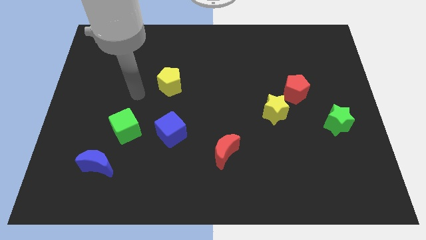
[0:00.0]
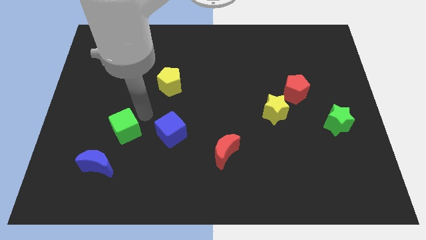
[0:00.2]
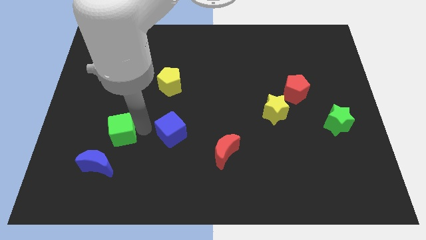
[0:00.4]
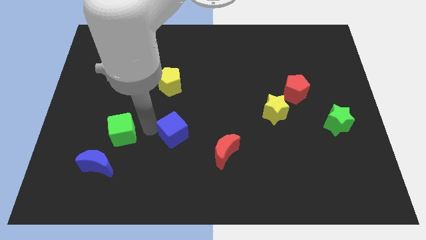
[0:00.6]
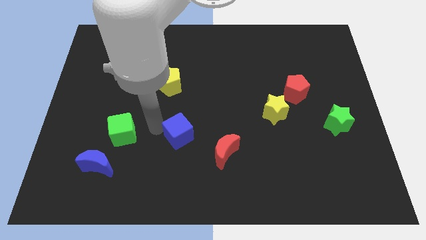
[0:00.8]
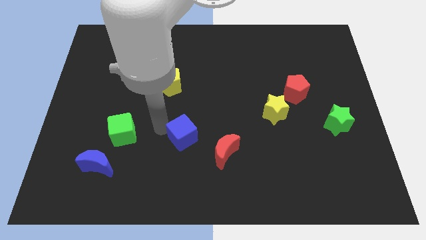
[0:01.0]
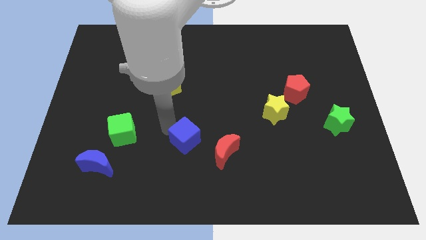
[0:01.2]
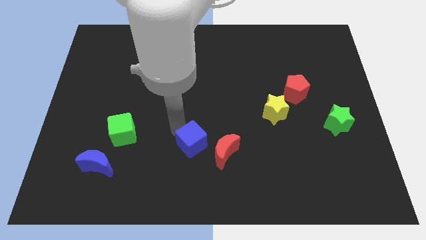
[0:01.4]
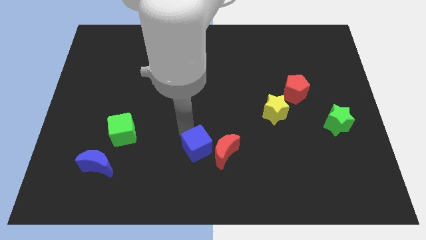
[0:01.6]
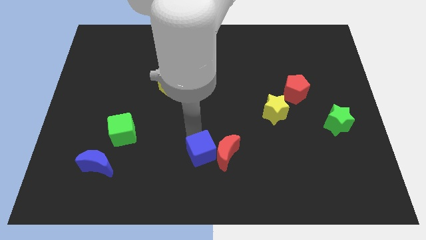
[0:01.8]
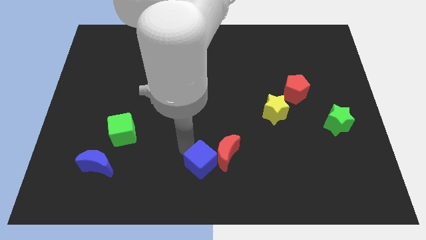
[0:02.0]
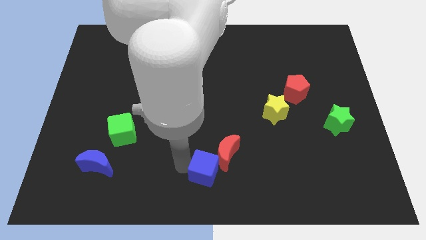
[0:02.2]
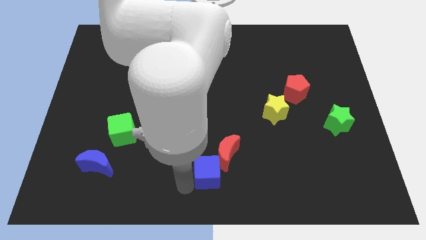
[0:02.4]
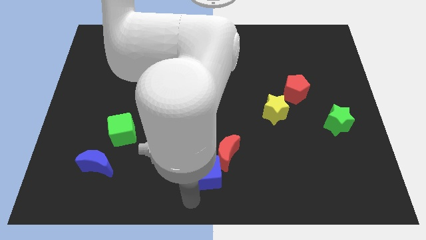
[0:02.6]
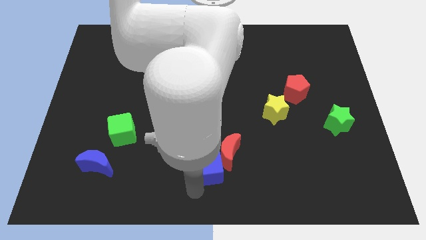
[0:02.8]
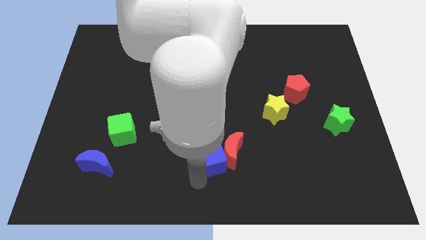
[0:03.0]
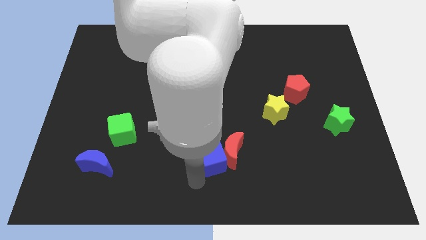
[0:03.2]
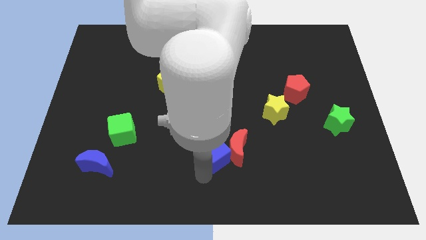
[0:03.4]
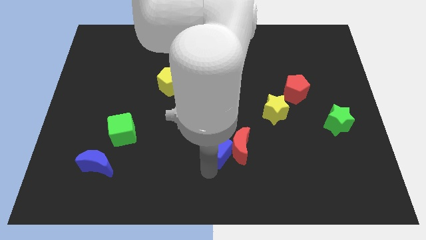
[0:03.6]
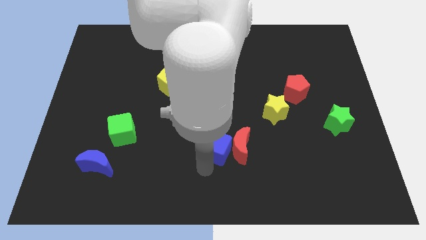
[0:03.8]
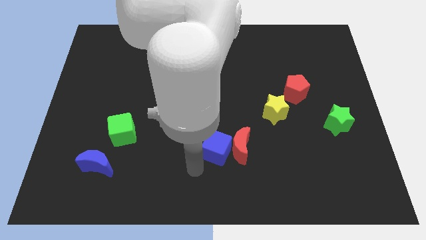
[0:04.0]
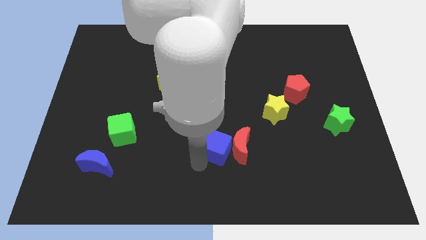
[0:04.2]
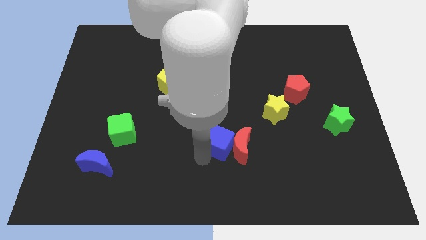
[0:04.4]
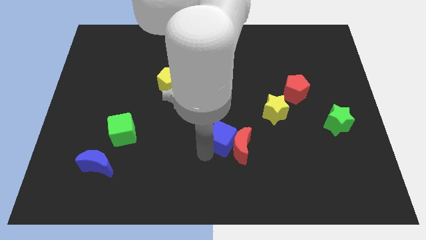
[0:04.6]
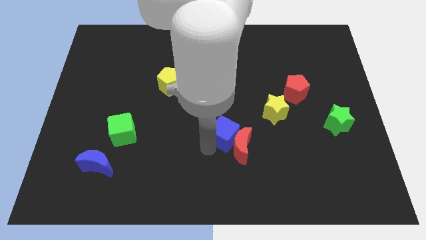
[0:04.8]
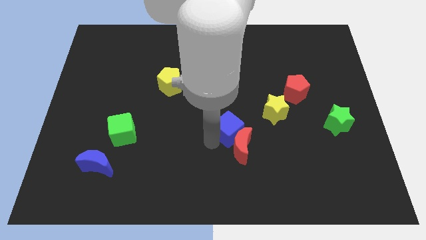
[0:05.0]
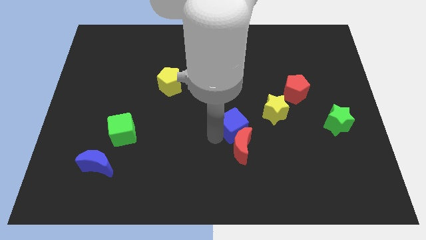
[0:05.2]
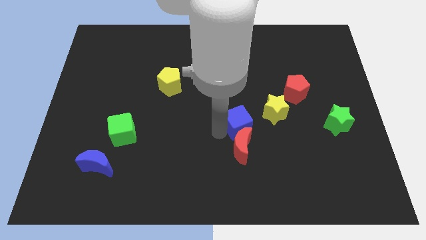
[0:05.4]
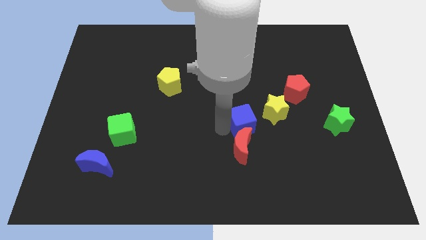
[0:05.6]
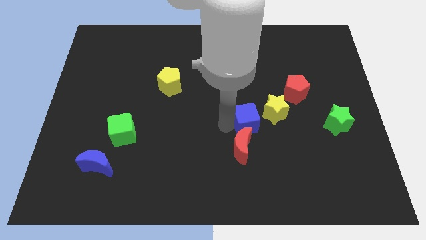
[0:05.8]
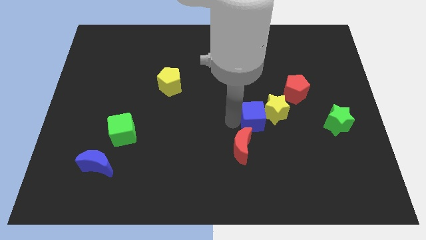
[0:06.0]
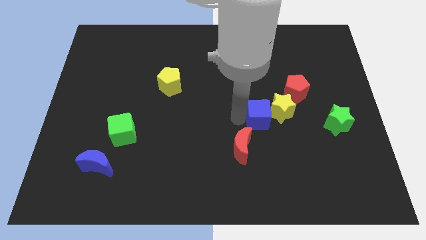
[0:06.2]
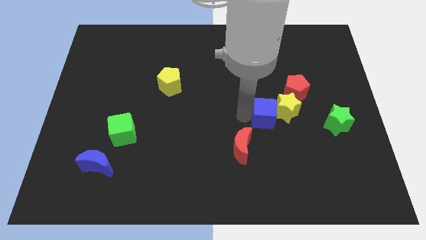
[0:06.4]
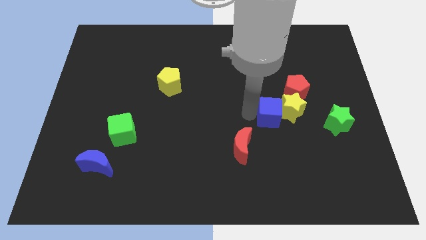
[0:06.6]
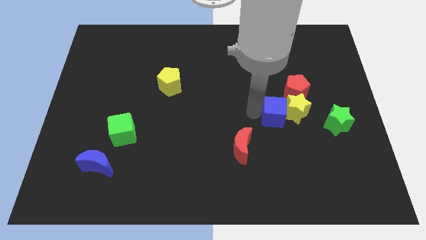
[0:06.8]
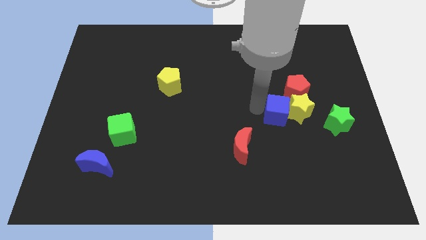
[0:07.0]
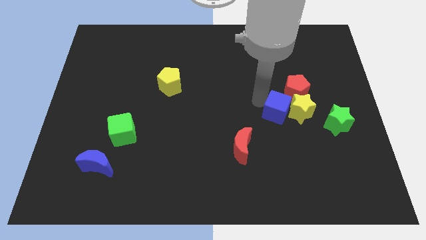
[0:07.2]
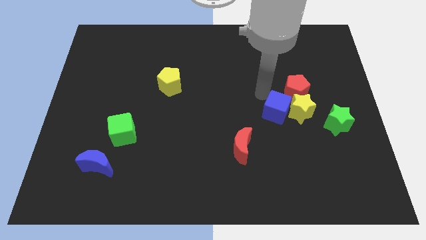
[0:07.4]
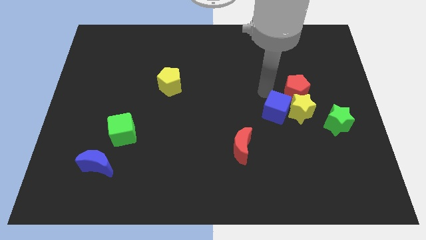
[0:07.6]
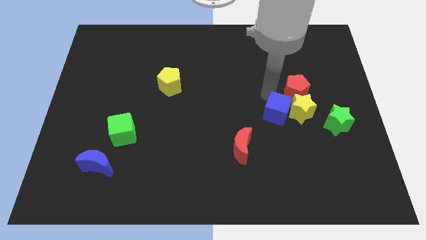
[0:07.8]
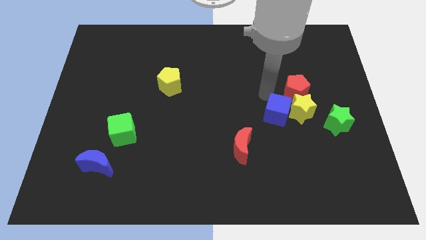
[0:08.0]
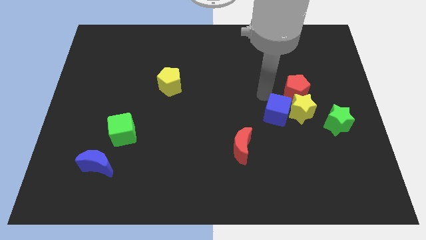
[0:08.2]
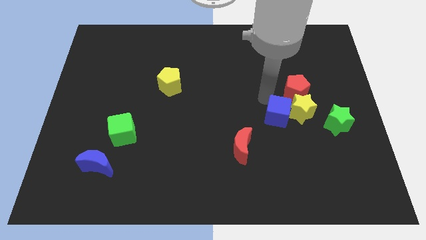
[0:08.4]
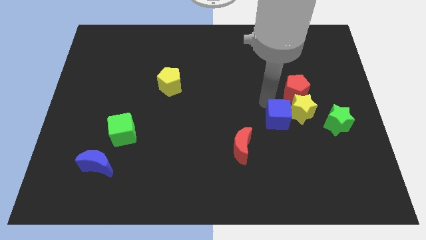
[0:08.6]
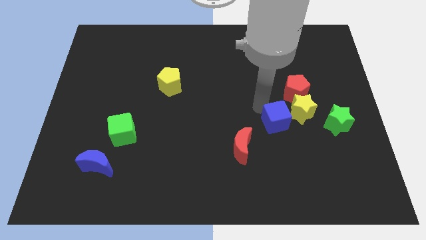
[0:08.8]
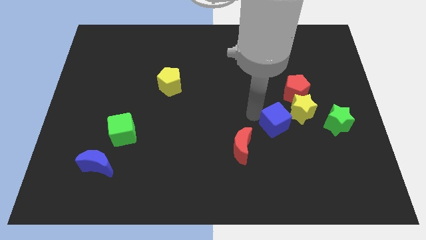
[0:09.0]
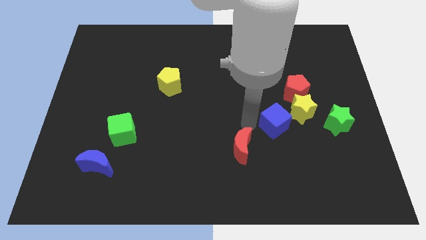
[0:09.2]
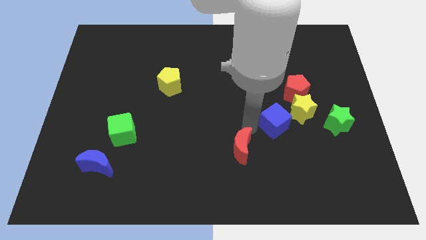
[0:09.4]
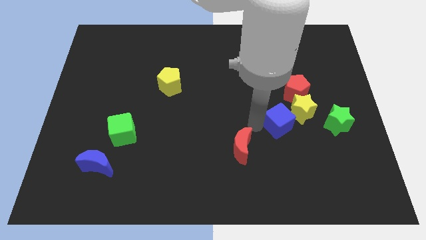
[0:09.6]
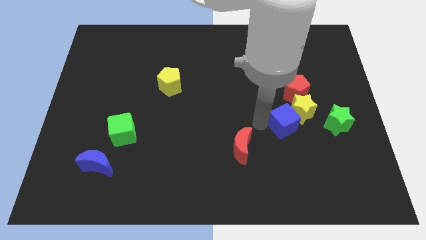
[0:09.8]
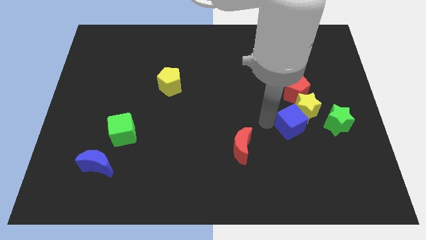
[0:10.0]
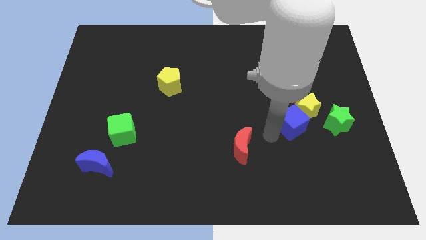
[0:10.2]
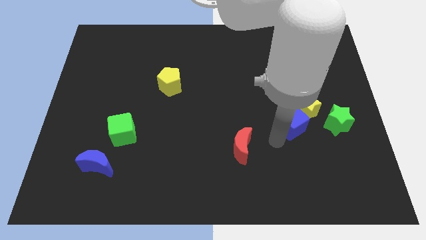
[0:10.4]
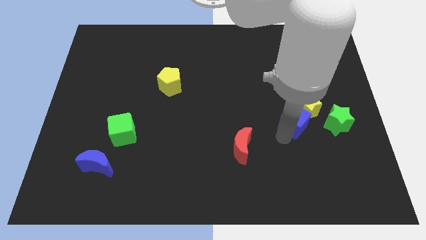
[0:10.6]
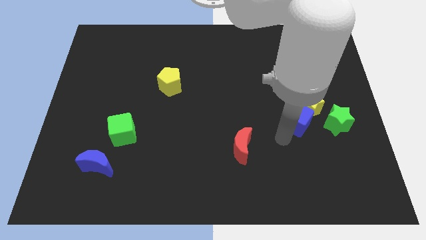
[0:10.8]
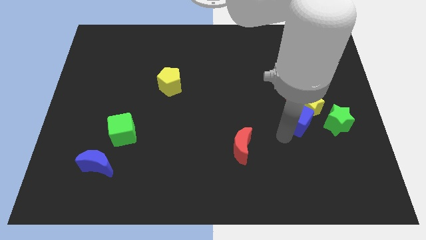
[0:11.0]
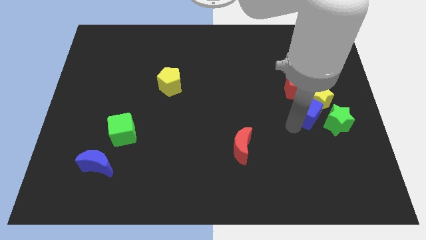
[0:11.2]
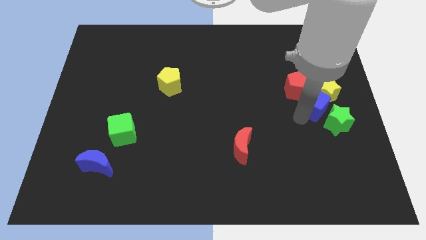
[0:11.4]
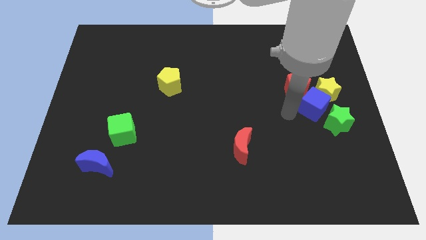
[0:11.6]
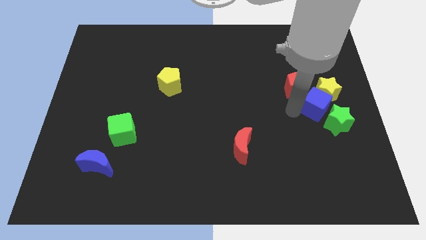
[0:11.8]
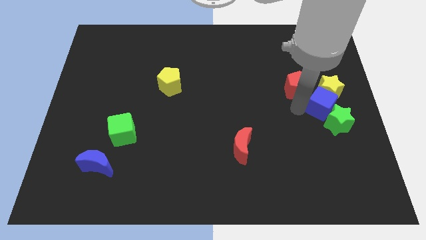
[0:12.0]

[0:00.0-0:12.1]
move the blue cube to the right side
